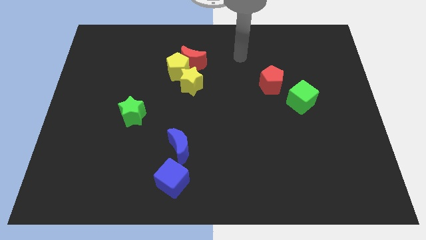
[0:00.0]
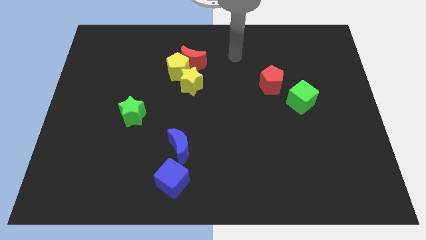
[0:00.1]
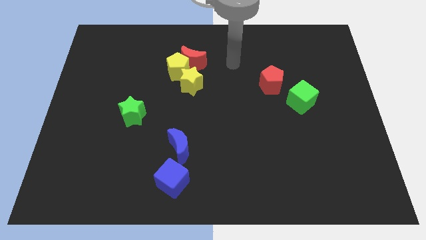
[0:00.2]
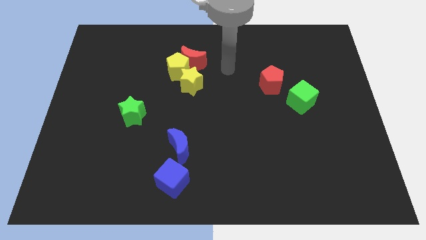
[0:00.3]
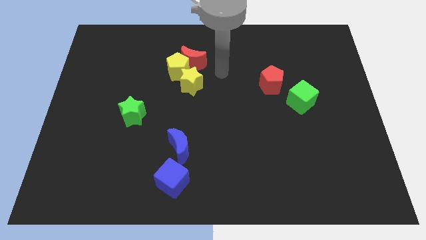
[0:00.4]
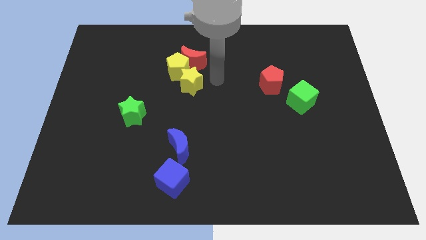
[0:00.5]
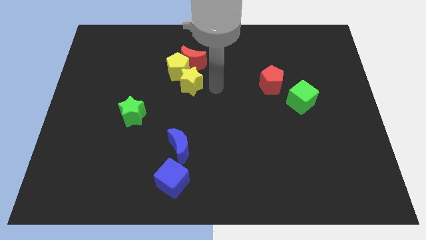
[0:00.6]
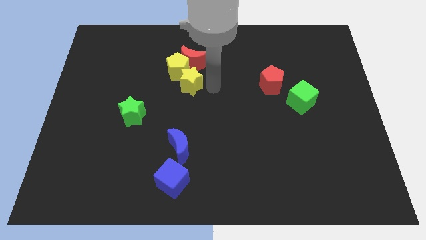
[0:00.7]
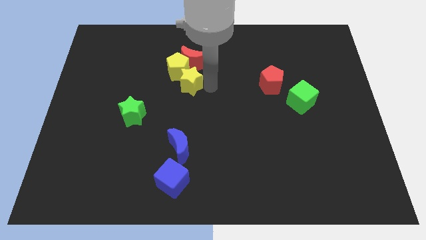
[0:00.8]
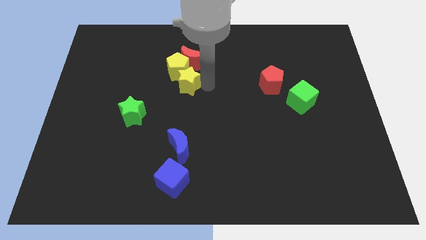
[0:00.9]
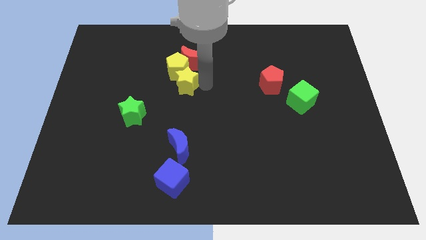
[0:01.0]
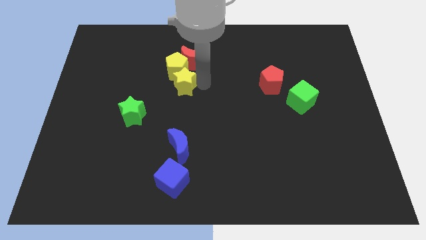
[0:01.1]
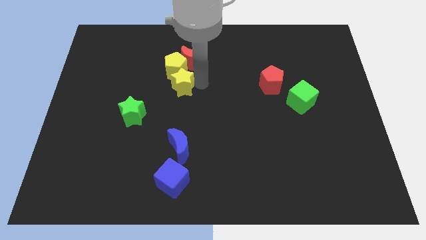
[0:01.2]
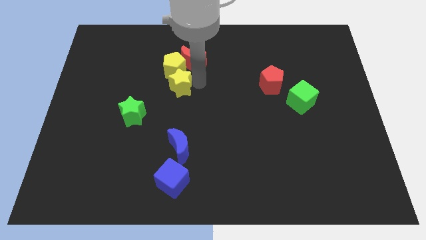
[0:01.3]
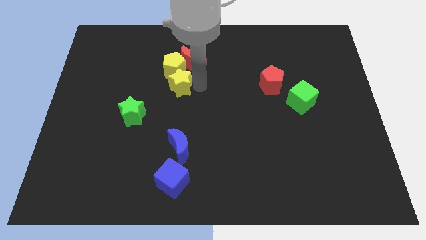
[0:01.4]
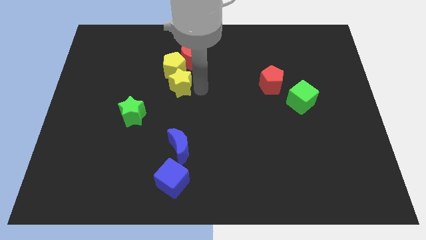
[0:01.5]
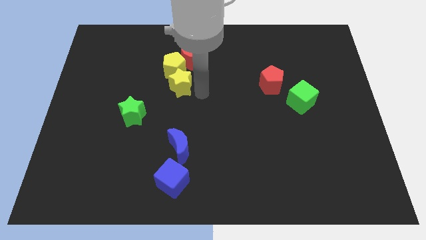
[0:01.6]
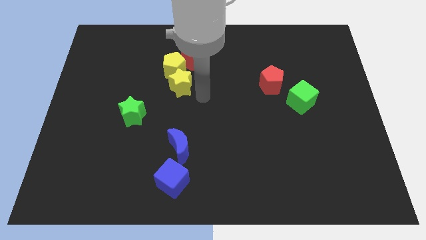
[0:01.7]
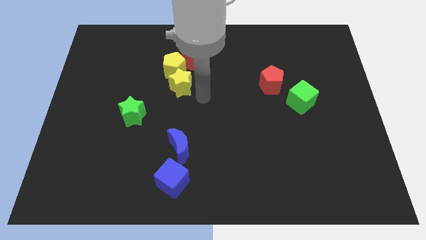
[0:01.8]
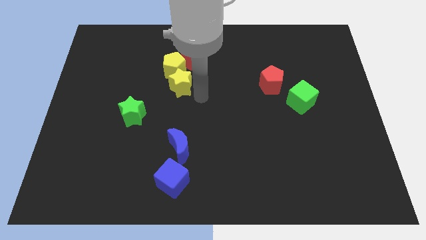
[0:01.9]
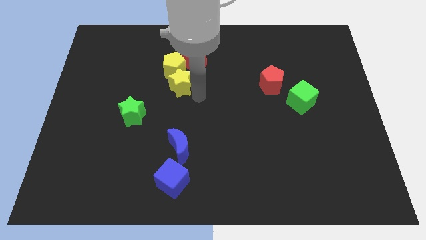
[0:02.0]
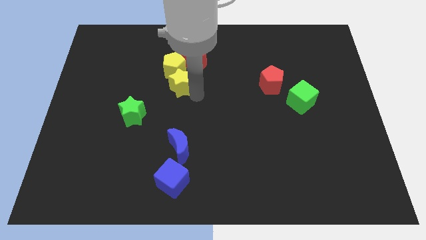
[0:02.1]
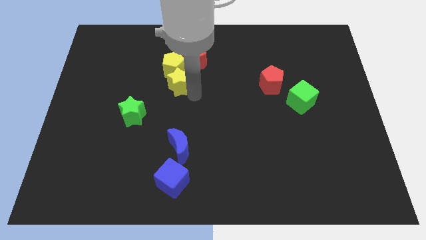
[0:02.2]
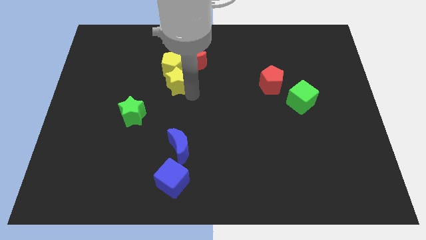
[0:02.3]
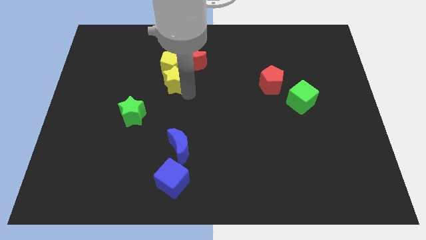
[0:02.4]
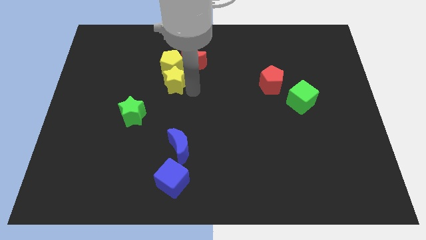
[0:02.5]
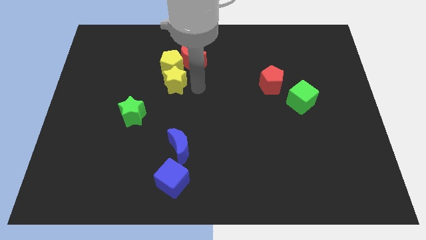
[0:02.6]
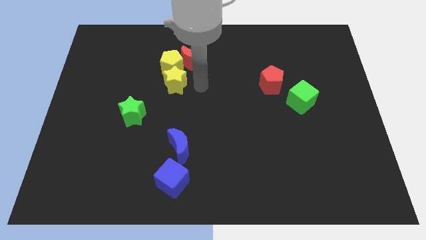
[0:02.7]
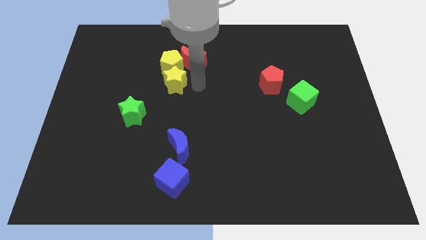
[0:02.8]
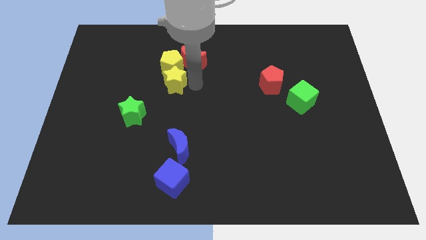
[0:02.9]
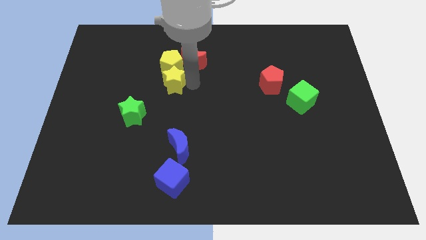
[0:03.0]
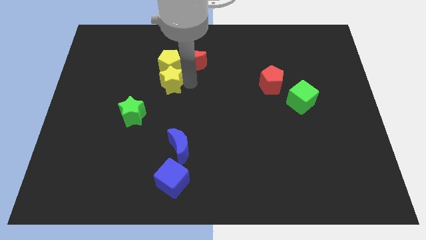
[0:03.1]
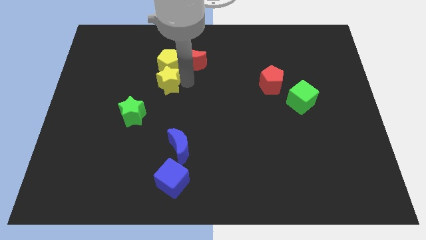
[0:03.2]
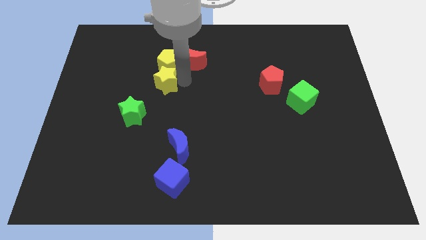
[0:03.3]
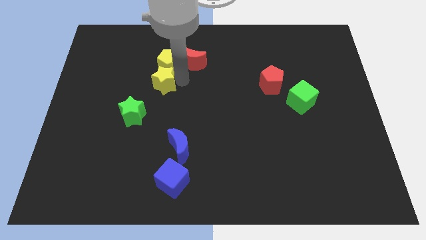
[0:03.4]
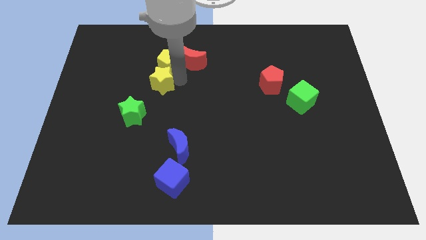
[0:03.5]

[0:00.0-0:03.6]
slide the yellow star left slightly

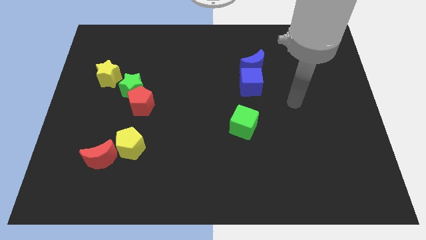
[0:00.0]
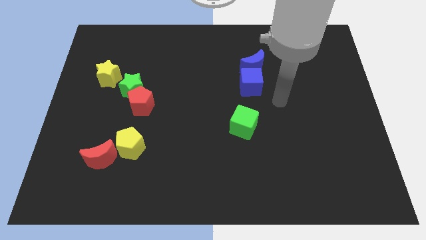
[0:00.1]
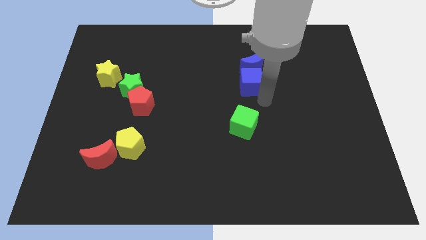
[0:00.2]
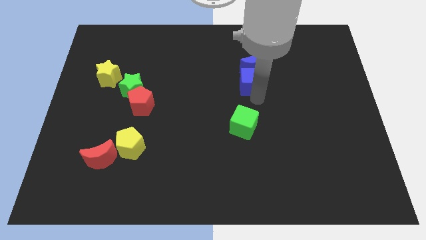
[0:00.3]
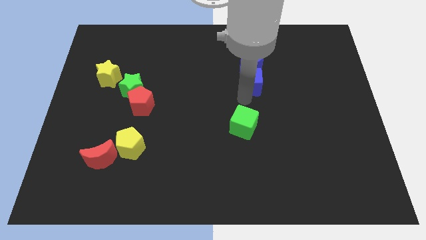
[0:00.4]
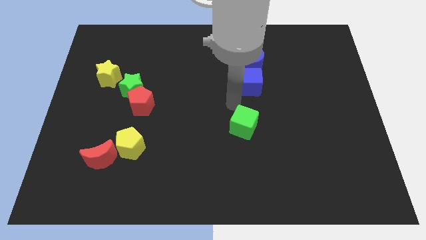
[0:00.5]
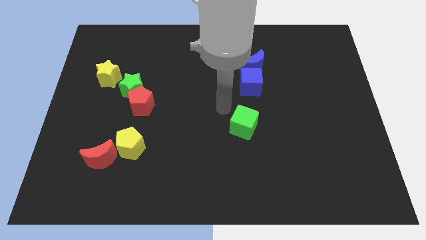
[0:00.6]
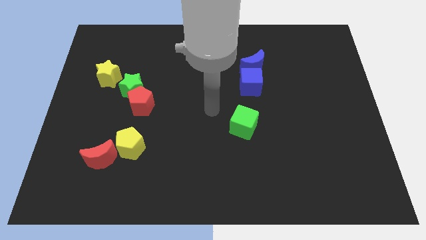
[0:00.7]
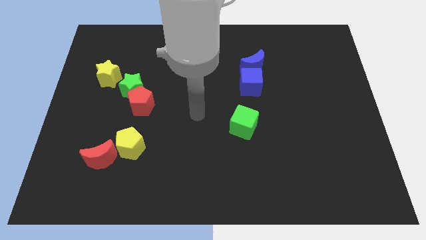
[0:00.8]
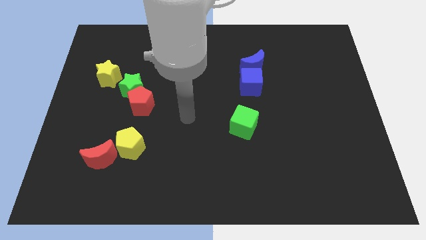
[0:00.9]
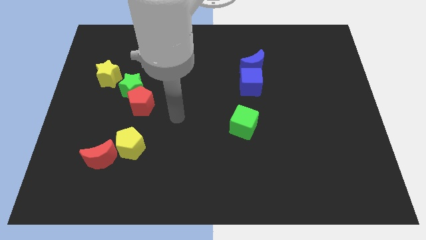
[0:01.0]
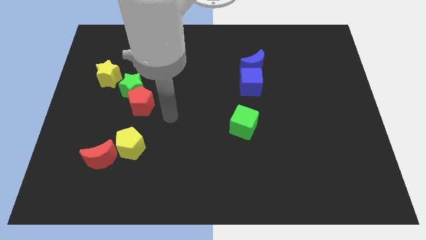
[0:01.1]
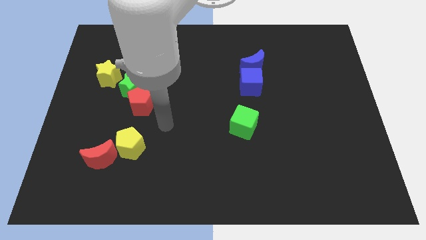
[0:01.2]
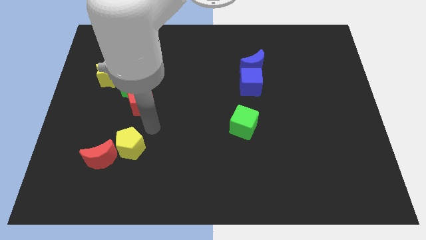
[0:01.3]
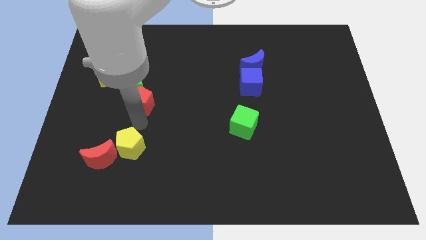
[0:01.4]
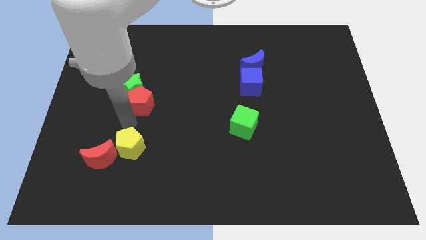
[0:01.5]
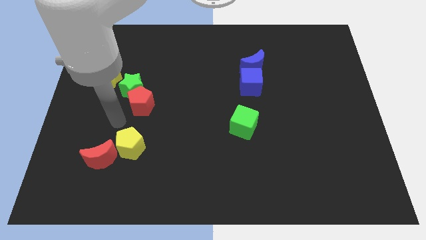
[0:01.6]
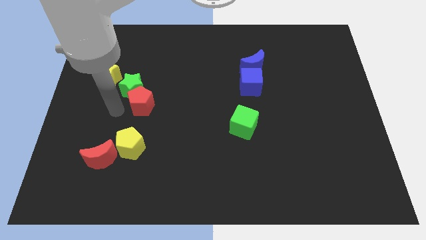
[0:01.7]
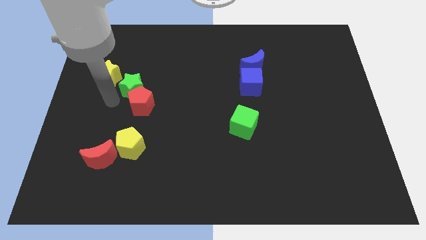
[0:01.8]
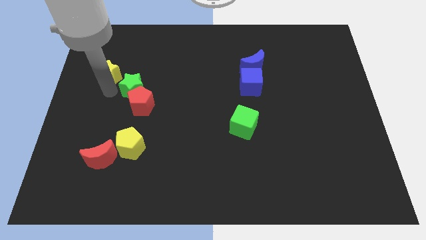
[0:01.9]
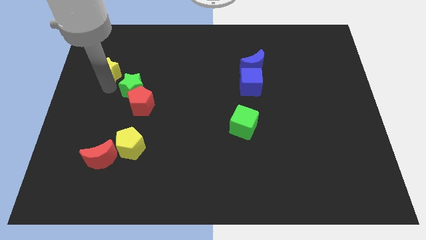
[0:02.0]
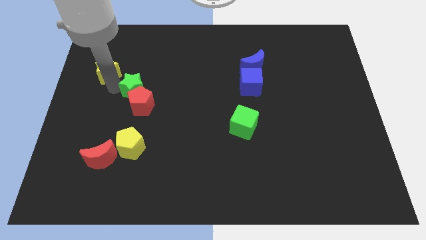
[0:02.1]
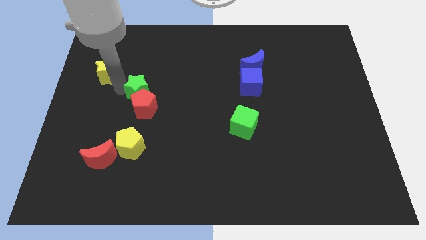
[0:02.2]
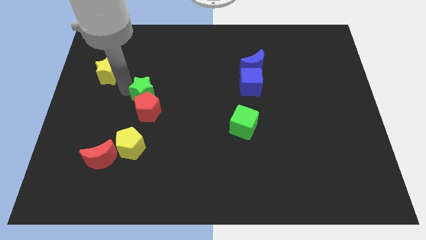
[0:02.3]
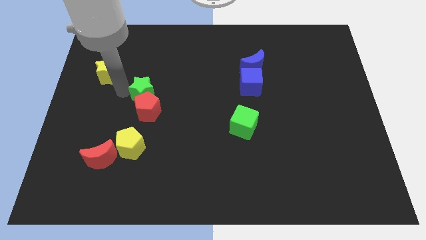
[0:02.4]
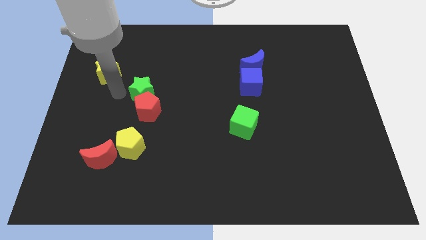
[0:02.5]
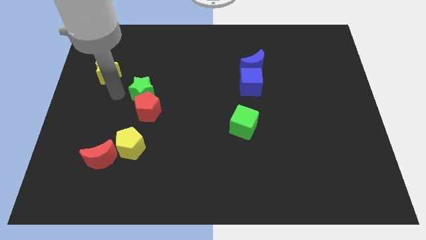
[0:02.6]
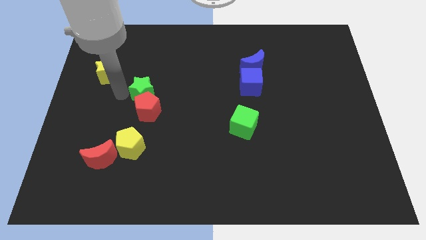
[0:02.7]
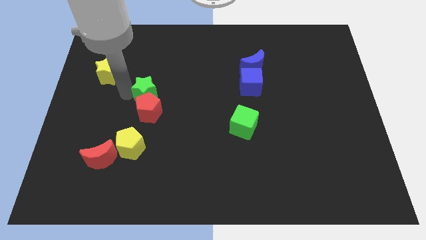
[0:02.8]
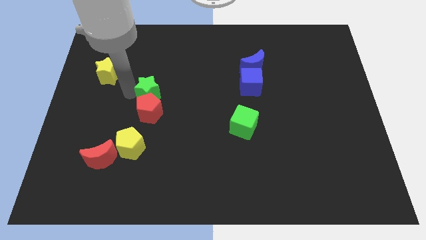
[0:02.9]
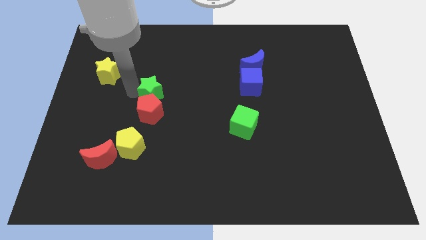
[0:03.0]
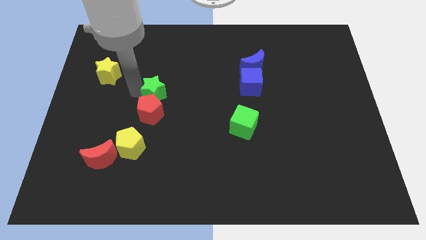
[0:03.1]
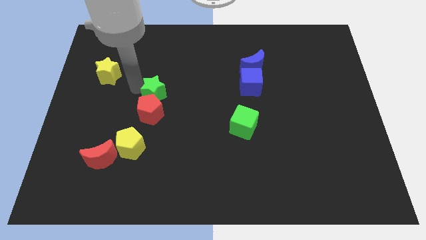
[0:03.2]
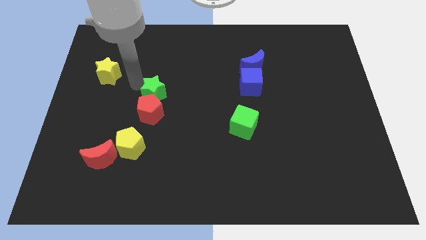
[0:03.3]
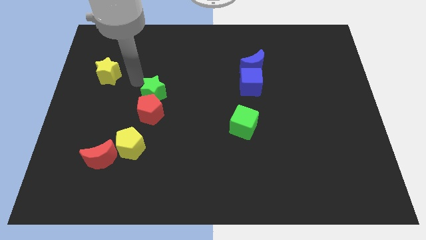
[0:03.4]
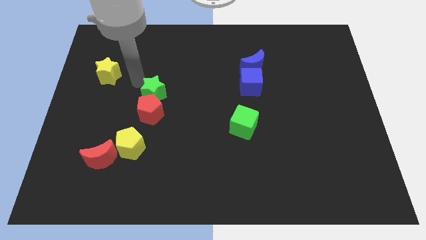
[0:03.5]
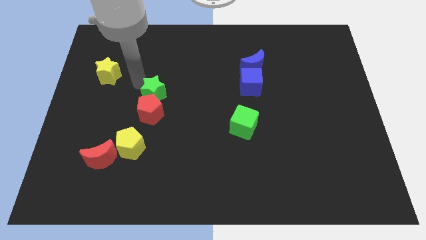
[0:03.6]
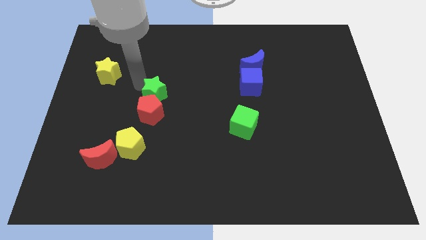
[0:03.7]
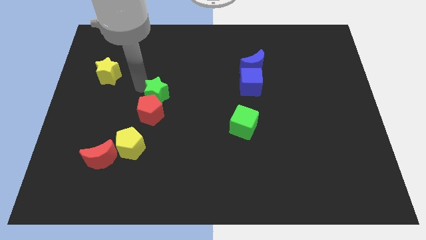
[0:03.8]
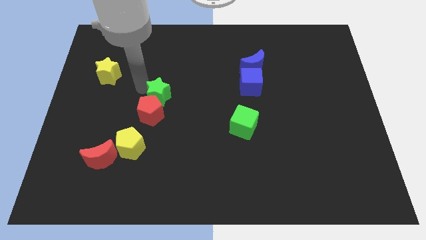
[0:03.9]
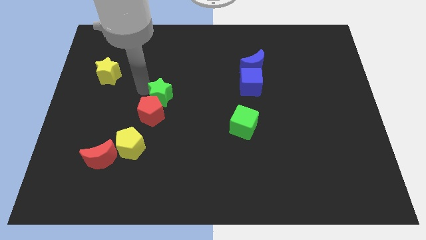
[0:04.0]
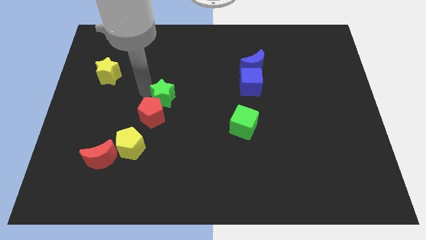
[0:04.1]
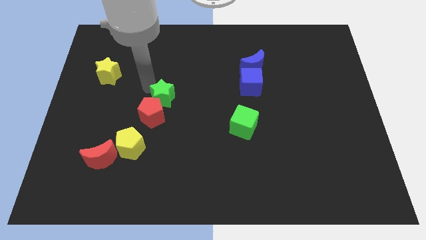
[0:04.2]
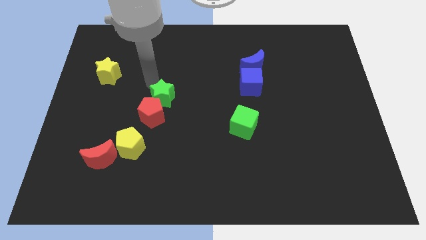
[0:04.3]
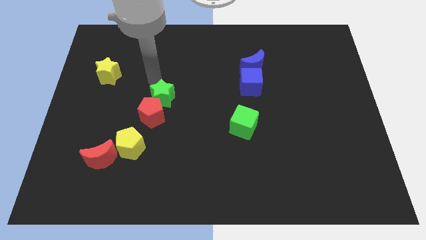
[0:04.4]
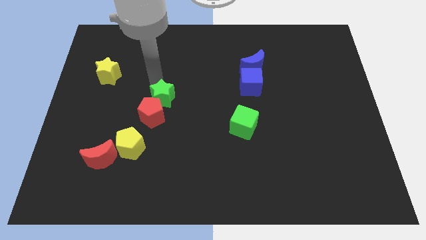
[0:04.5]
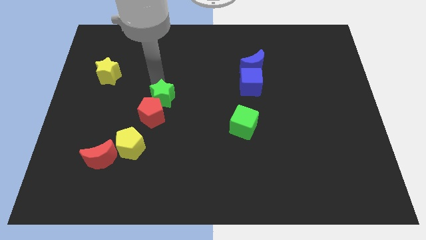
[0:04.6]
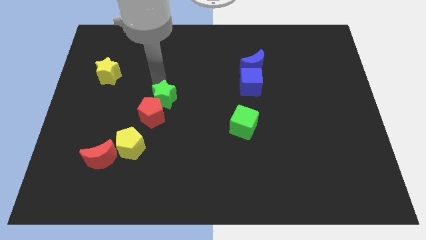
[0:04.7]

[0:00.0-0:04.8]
move the green star somewhat down and to the right diagonally
